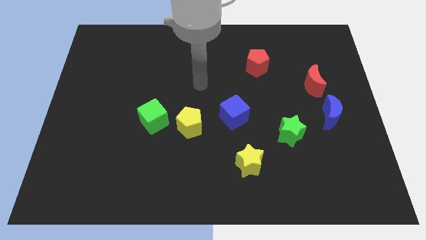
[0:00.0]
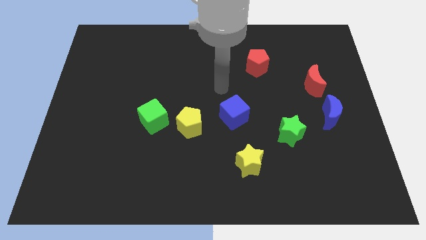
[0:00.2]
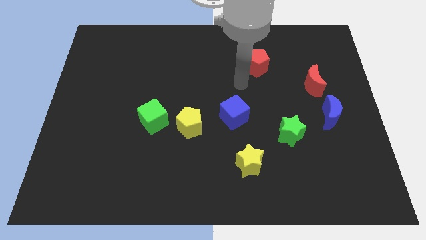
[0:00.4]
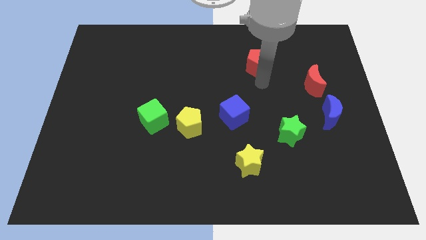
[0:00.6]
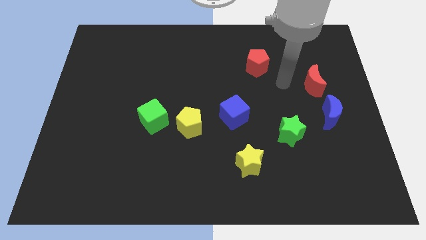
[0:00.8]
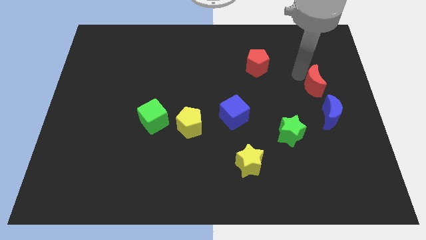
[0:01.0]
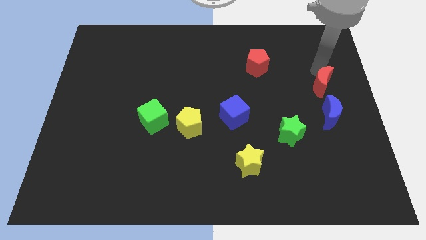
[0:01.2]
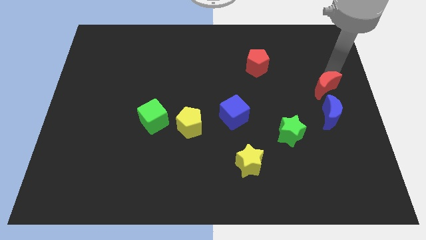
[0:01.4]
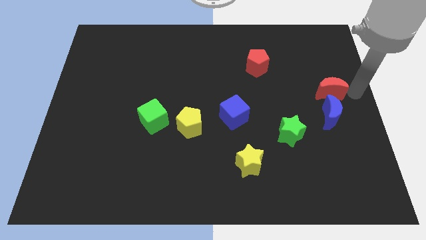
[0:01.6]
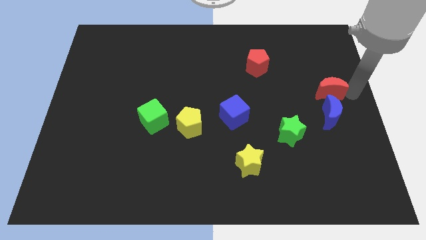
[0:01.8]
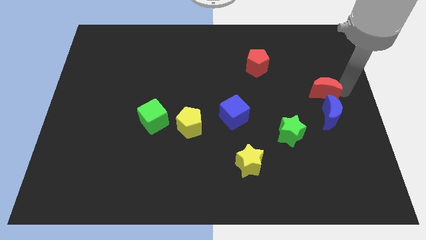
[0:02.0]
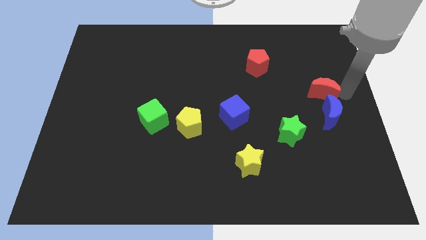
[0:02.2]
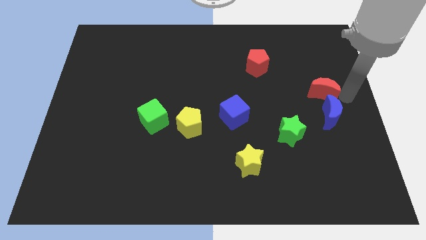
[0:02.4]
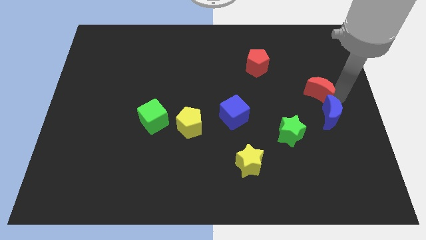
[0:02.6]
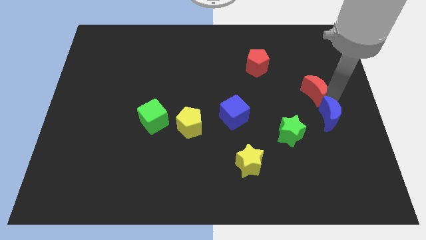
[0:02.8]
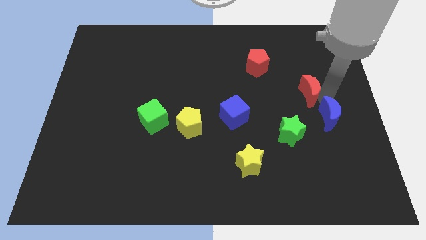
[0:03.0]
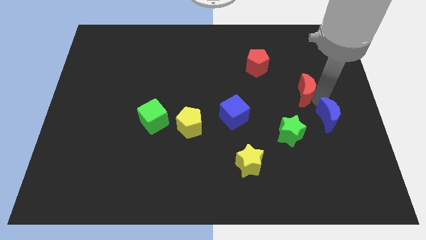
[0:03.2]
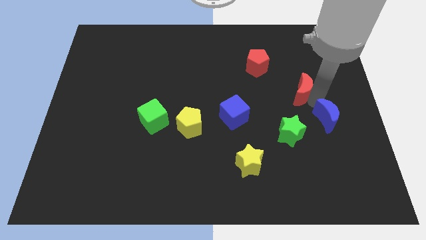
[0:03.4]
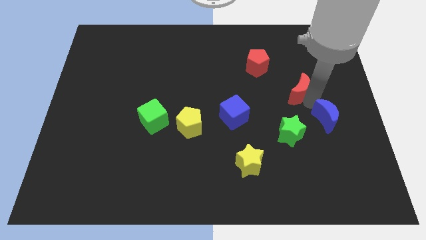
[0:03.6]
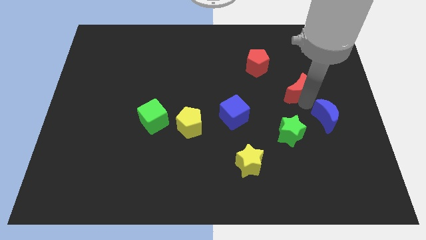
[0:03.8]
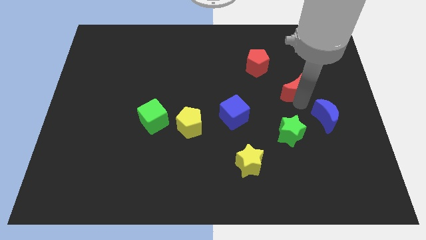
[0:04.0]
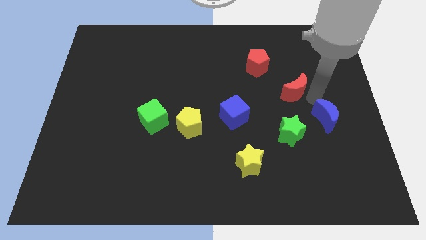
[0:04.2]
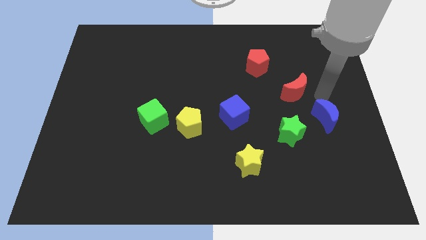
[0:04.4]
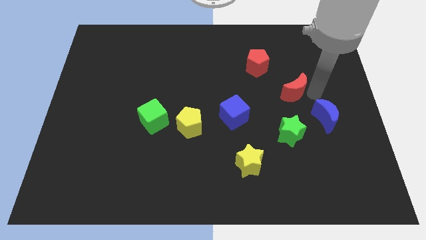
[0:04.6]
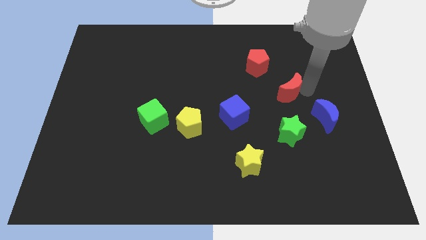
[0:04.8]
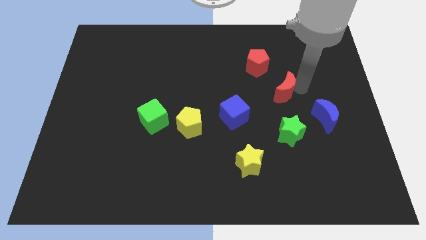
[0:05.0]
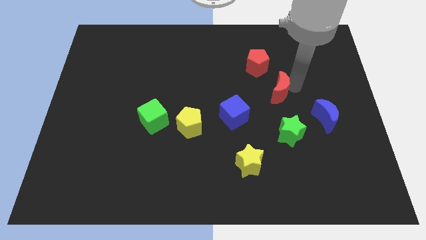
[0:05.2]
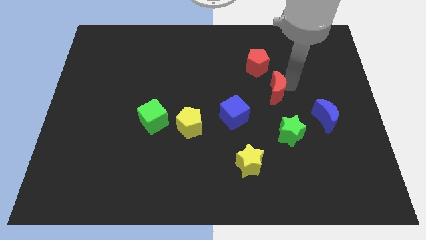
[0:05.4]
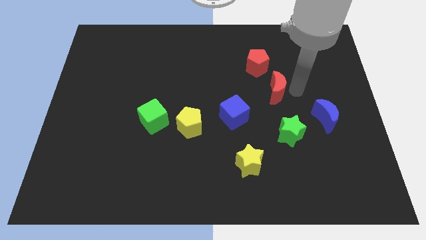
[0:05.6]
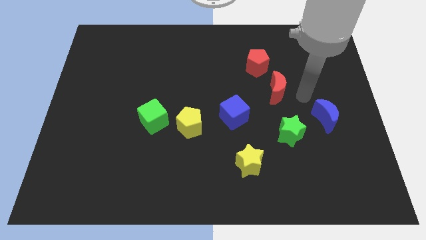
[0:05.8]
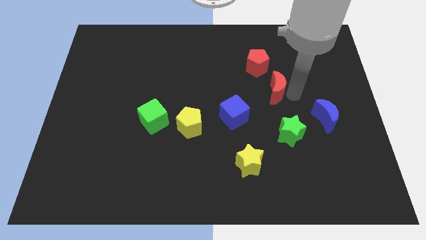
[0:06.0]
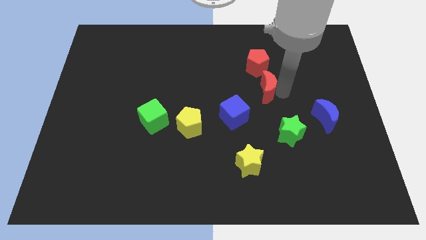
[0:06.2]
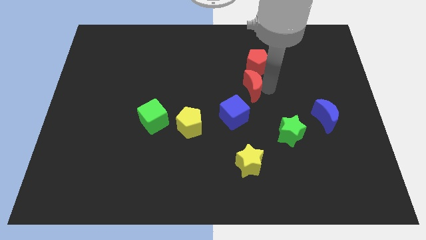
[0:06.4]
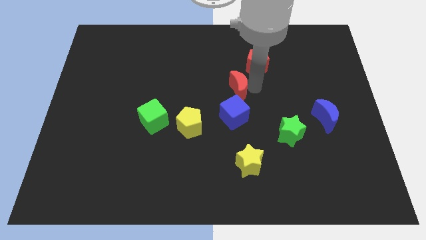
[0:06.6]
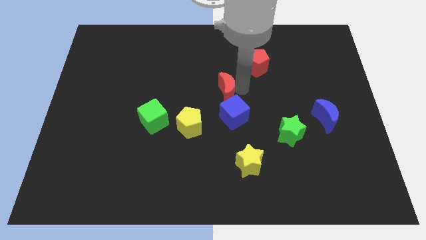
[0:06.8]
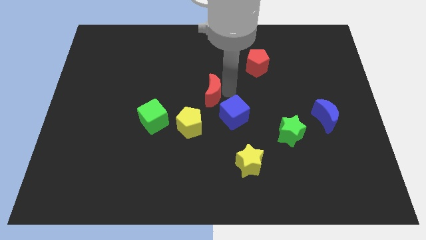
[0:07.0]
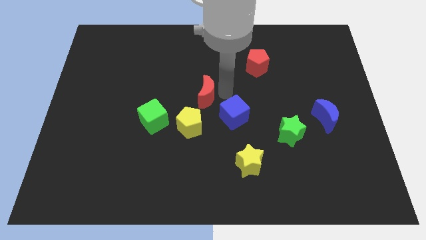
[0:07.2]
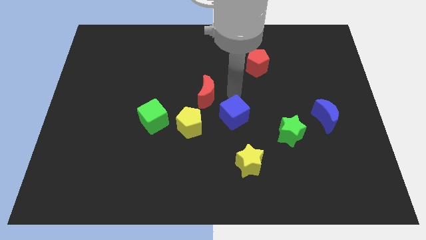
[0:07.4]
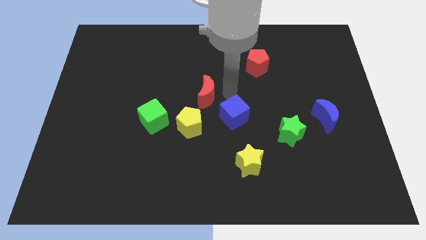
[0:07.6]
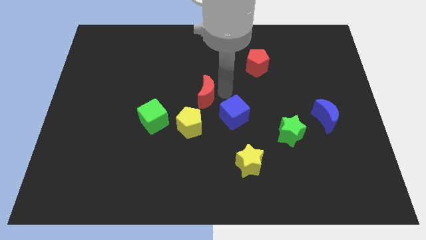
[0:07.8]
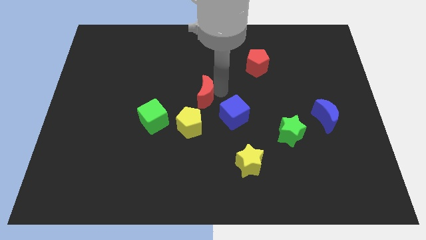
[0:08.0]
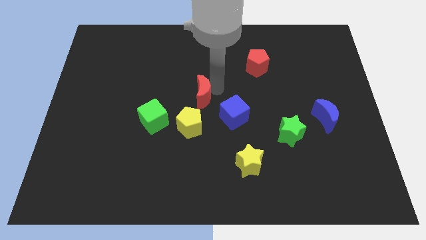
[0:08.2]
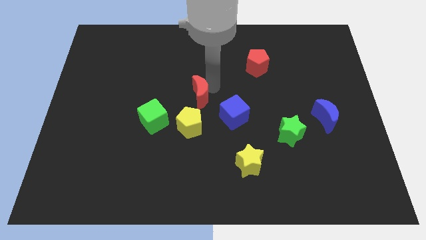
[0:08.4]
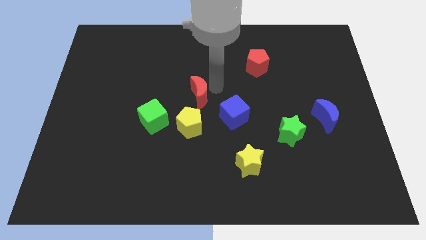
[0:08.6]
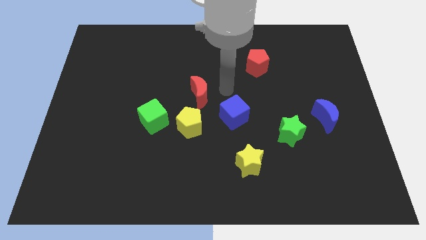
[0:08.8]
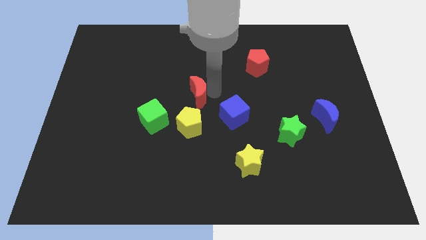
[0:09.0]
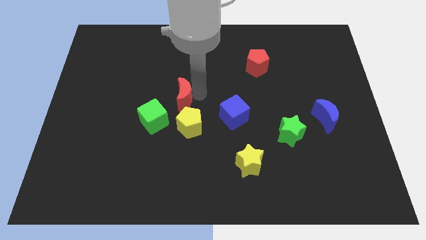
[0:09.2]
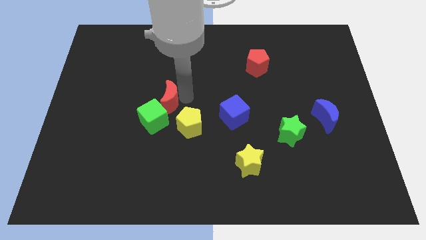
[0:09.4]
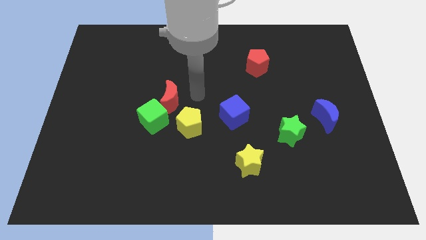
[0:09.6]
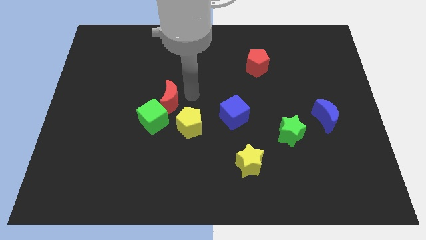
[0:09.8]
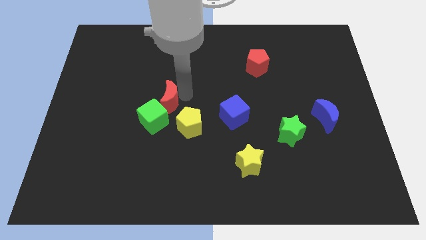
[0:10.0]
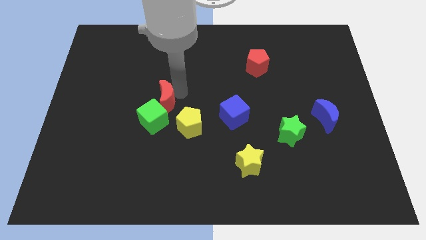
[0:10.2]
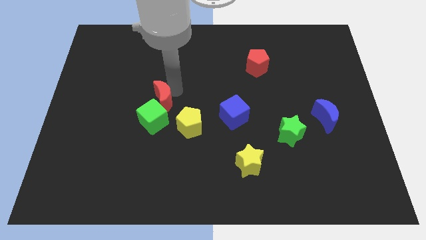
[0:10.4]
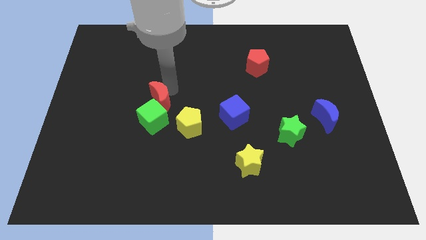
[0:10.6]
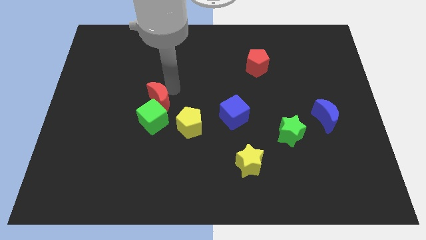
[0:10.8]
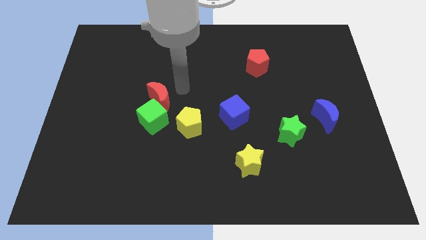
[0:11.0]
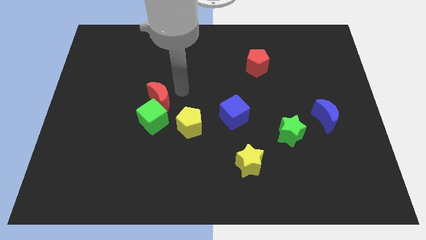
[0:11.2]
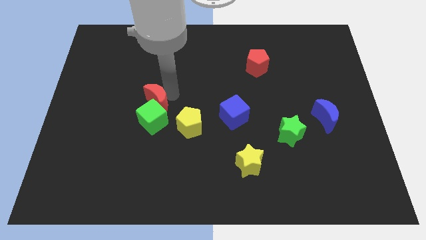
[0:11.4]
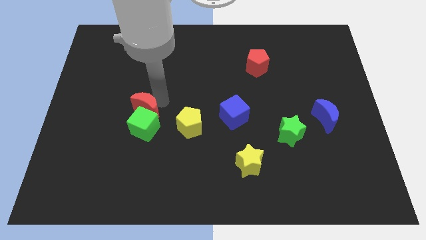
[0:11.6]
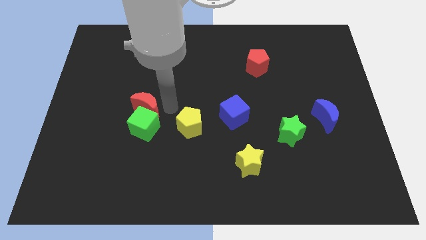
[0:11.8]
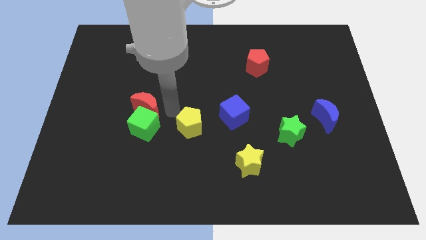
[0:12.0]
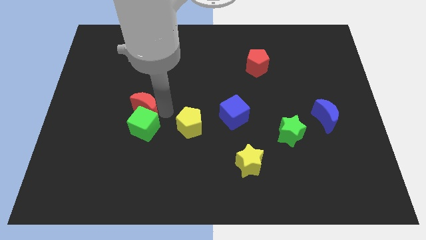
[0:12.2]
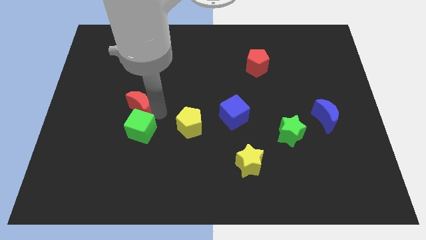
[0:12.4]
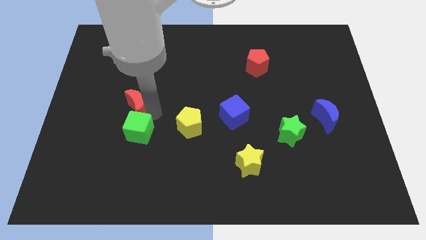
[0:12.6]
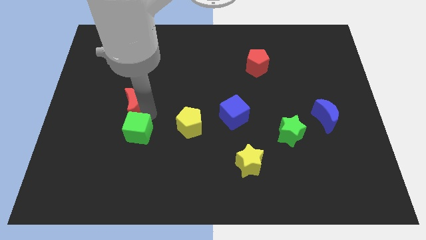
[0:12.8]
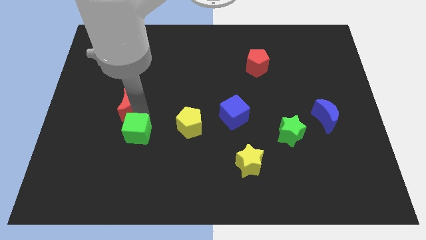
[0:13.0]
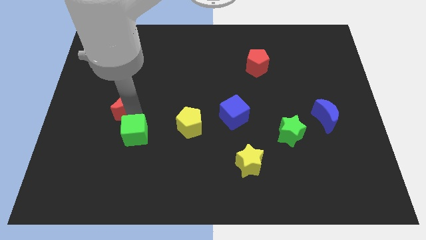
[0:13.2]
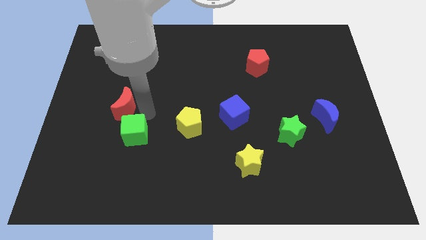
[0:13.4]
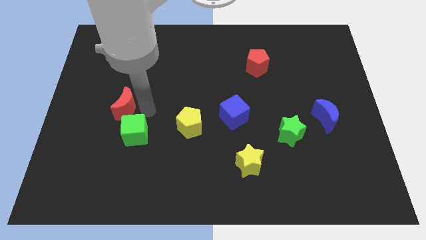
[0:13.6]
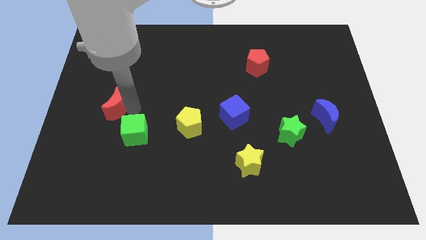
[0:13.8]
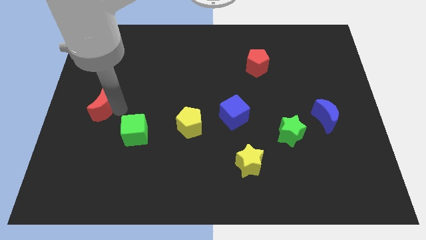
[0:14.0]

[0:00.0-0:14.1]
move the red moon to the left side

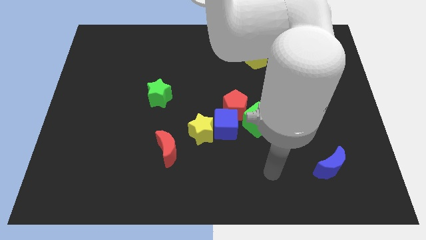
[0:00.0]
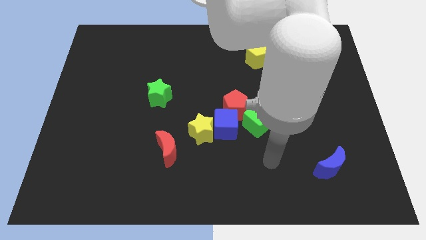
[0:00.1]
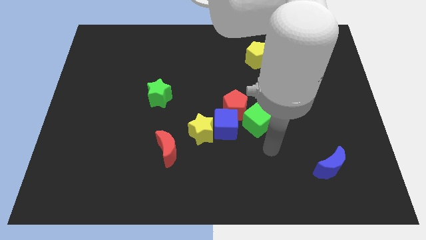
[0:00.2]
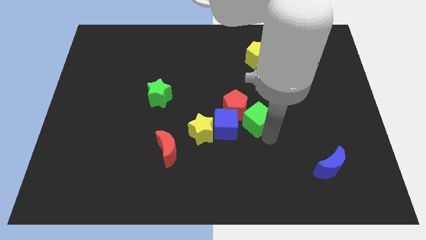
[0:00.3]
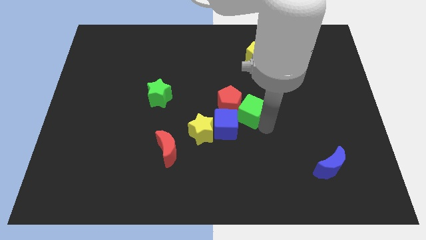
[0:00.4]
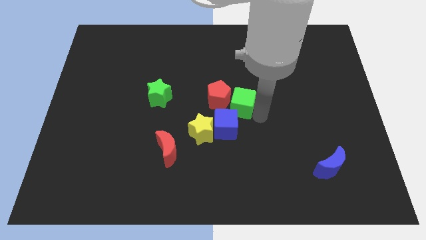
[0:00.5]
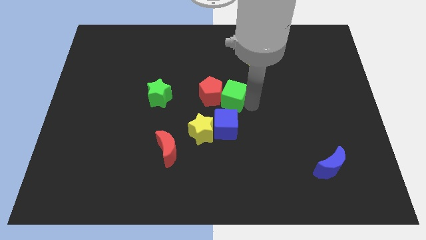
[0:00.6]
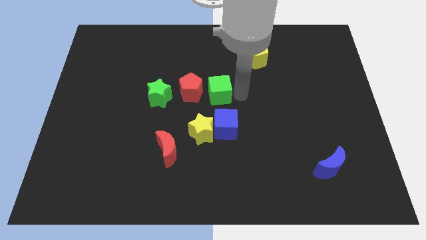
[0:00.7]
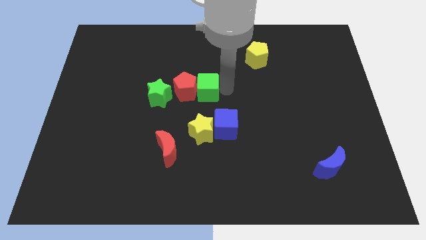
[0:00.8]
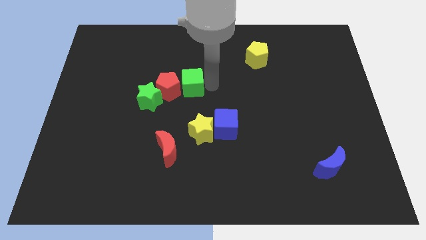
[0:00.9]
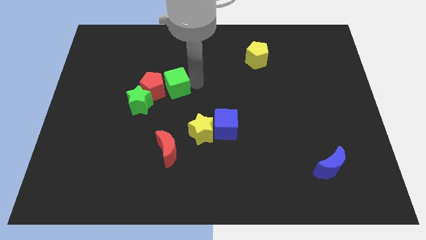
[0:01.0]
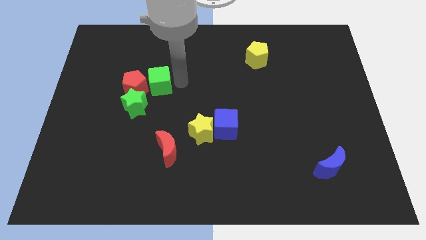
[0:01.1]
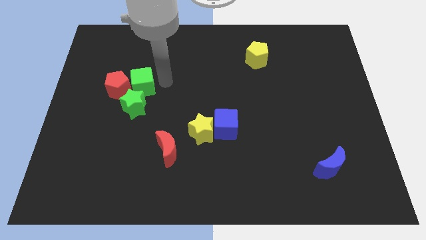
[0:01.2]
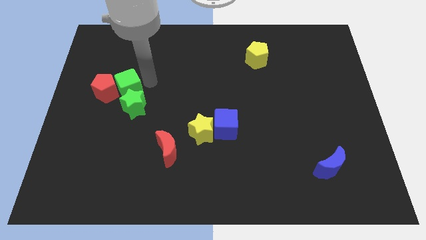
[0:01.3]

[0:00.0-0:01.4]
put the red pentagon to the left side

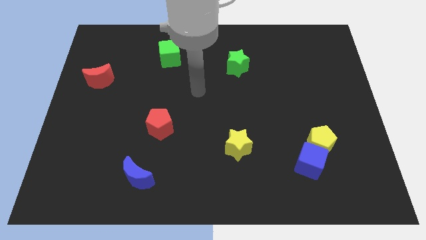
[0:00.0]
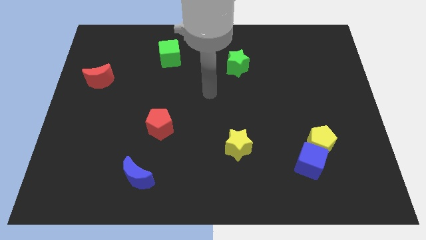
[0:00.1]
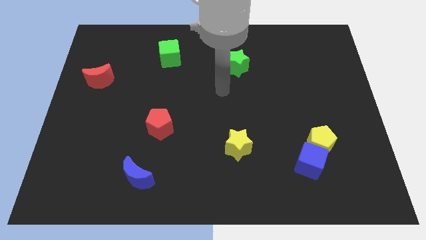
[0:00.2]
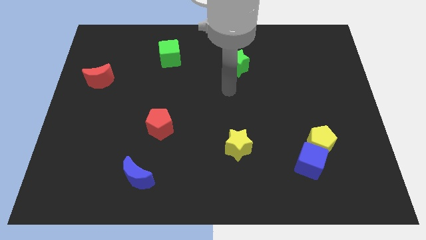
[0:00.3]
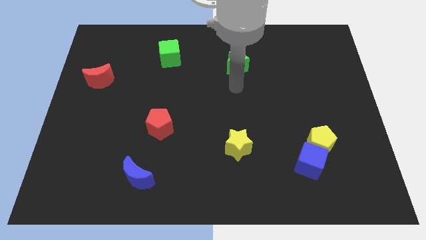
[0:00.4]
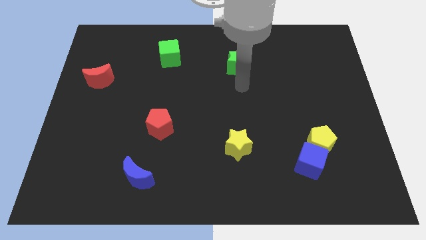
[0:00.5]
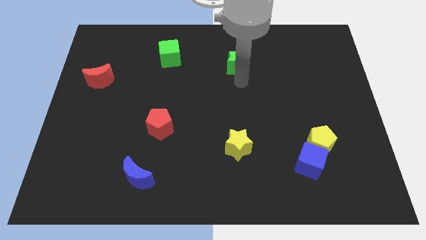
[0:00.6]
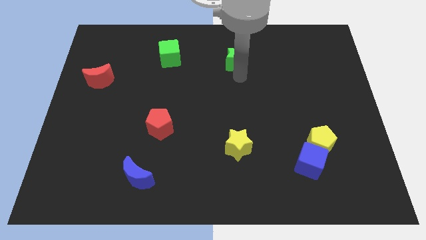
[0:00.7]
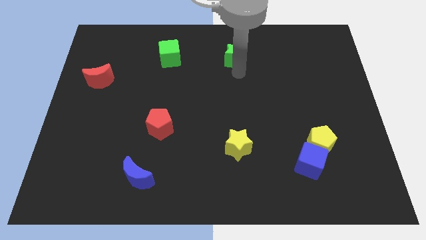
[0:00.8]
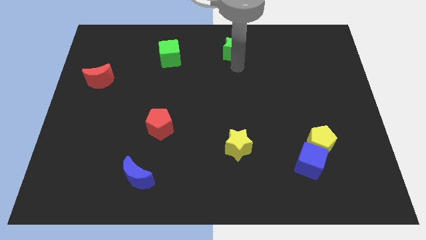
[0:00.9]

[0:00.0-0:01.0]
put the green star to the towards your base
